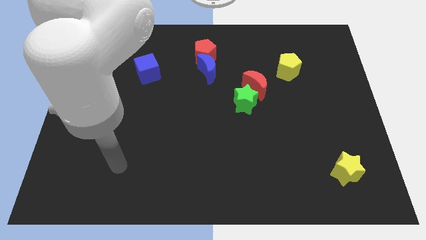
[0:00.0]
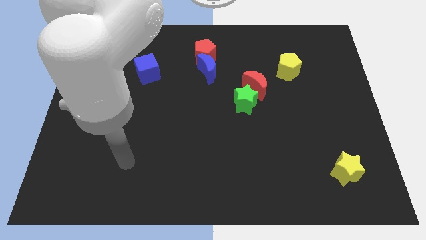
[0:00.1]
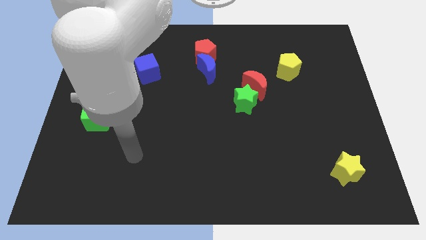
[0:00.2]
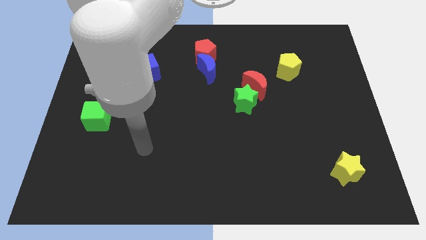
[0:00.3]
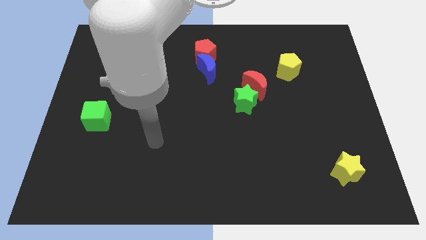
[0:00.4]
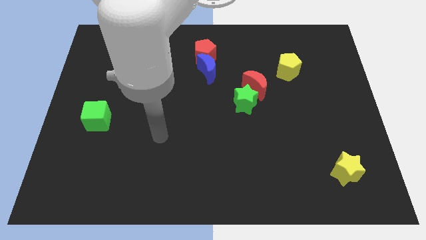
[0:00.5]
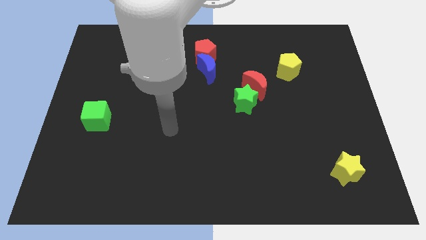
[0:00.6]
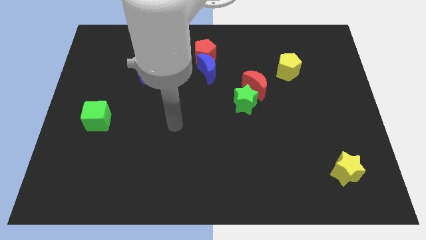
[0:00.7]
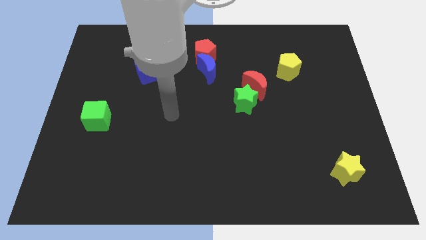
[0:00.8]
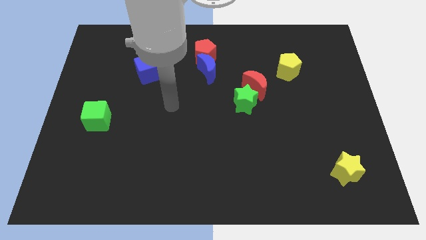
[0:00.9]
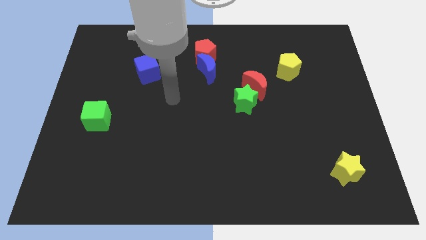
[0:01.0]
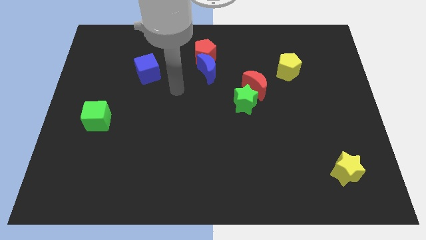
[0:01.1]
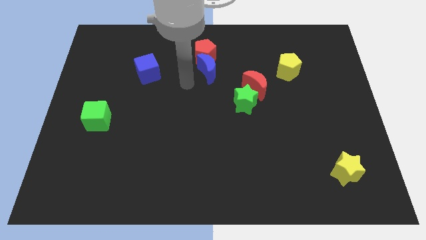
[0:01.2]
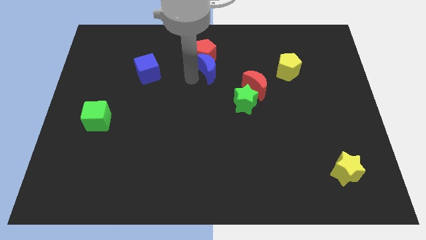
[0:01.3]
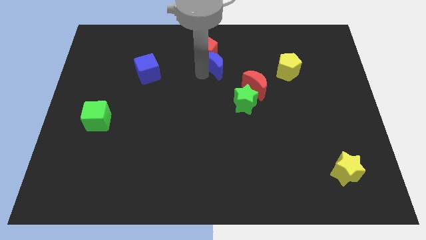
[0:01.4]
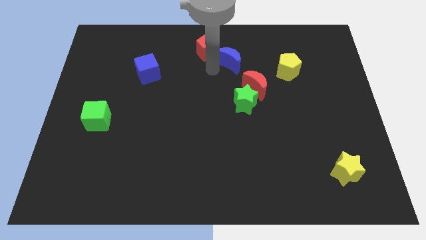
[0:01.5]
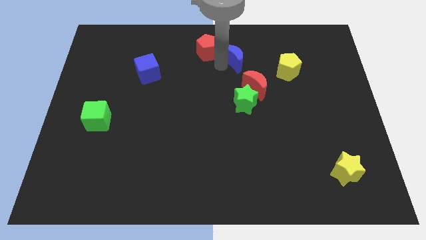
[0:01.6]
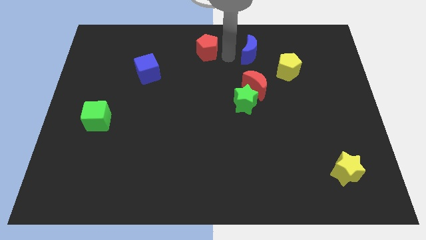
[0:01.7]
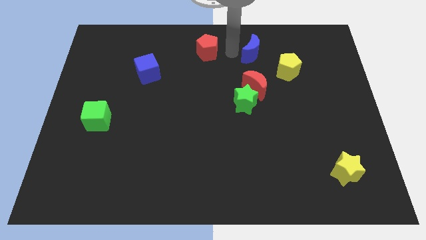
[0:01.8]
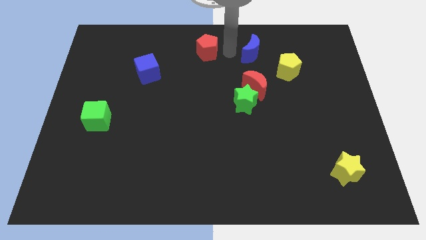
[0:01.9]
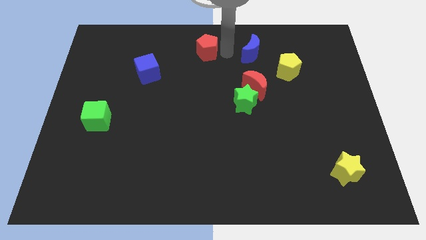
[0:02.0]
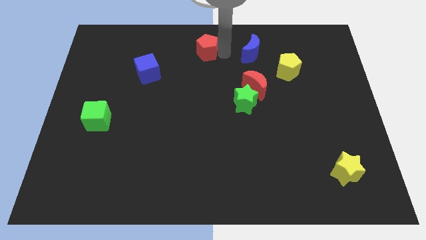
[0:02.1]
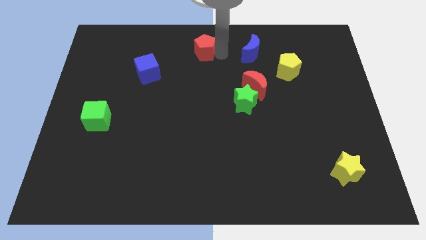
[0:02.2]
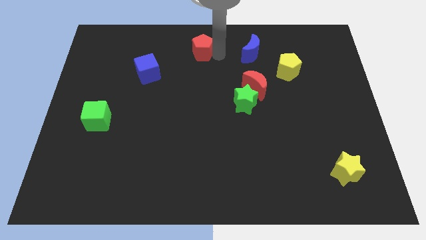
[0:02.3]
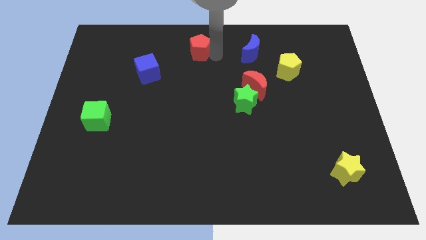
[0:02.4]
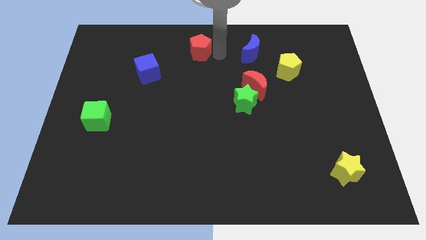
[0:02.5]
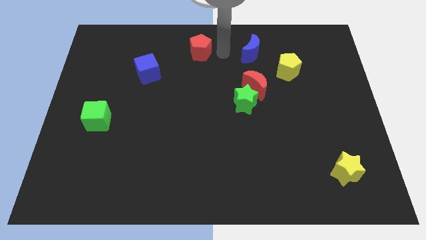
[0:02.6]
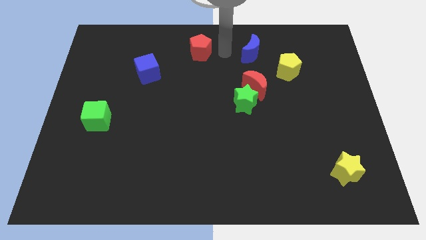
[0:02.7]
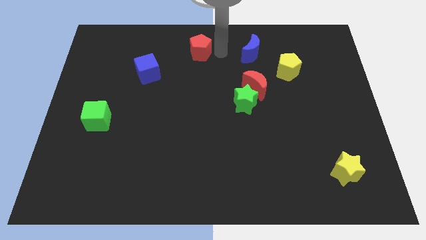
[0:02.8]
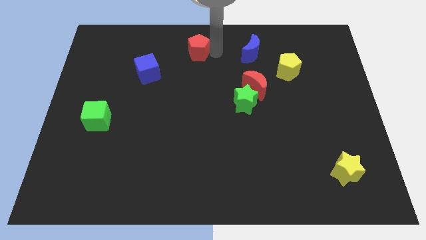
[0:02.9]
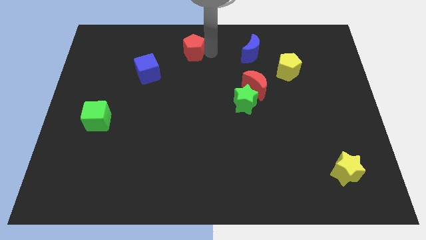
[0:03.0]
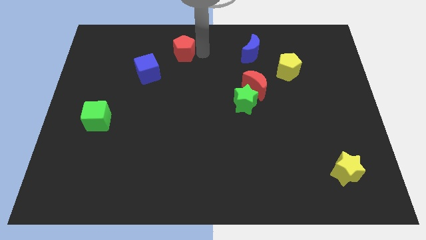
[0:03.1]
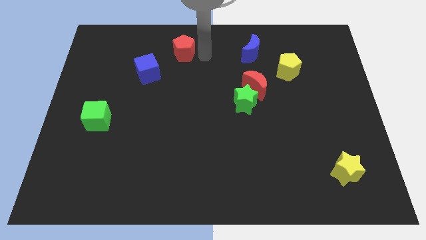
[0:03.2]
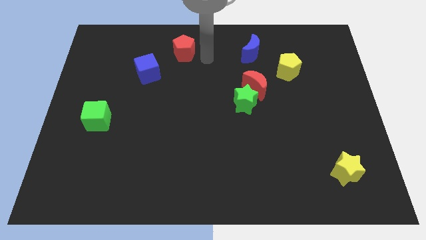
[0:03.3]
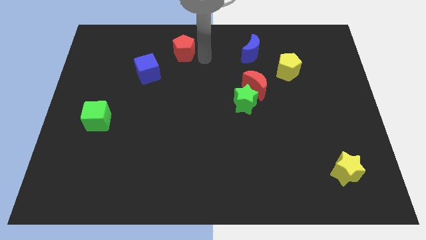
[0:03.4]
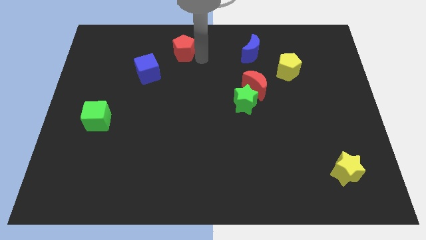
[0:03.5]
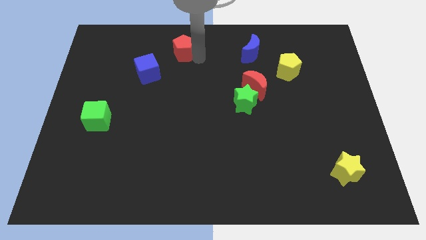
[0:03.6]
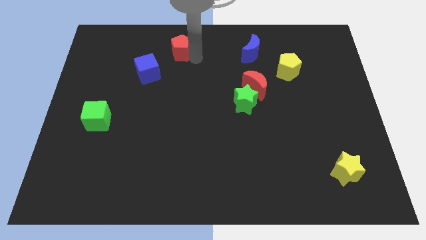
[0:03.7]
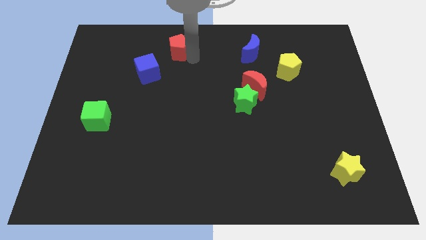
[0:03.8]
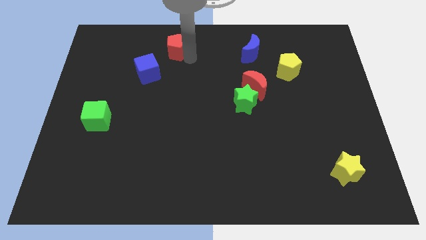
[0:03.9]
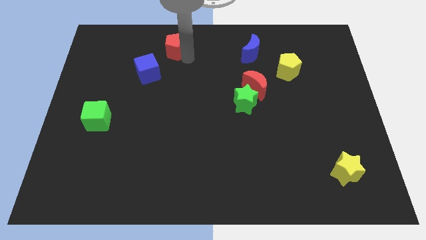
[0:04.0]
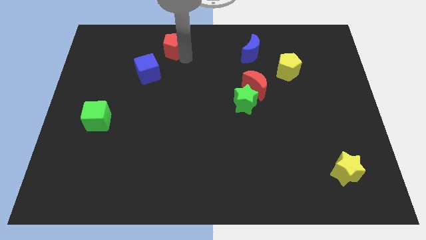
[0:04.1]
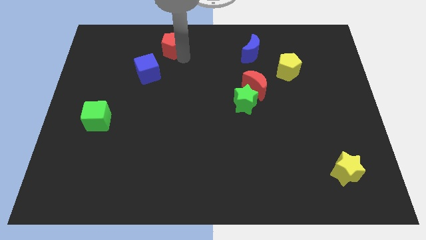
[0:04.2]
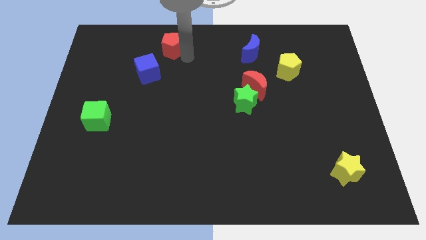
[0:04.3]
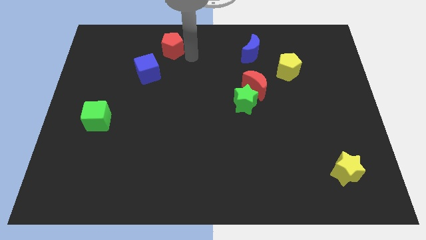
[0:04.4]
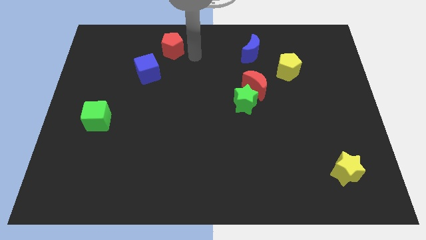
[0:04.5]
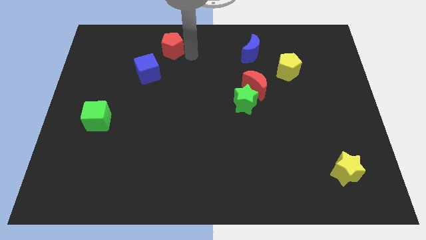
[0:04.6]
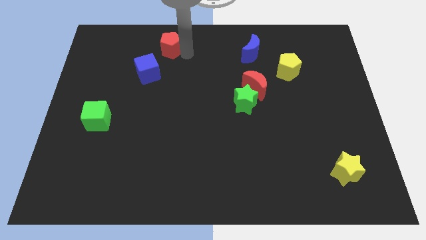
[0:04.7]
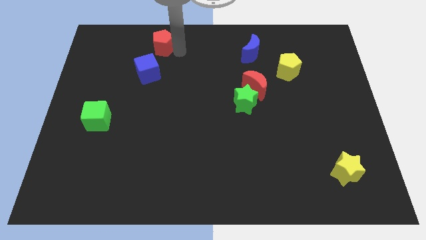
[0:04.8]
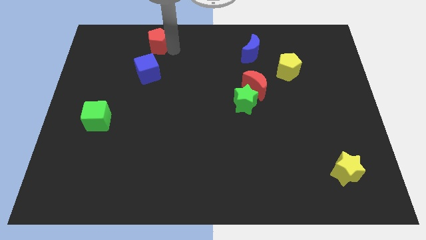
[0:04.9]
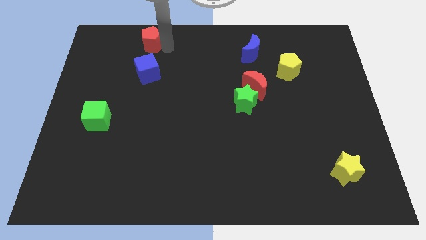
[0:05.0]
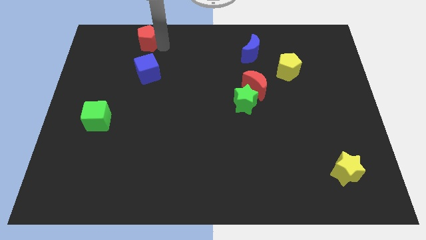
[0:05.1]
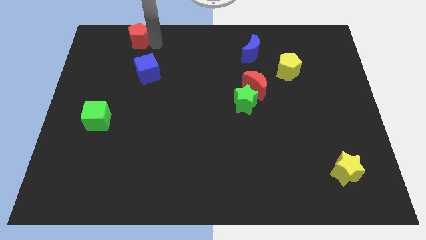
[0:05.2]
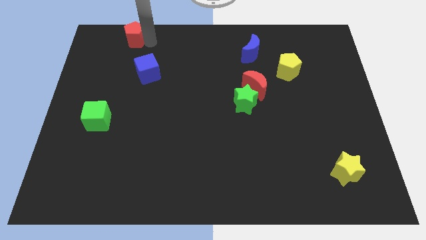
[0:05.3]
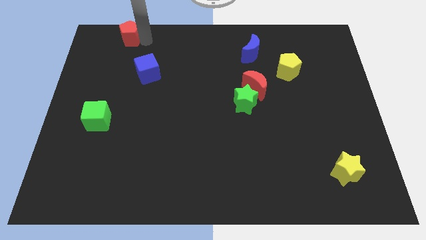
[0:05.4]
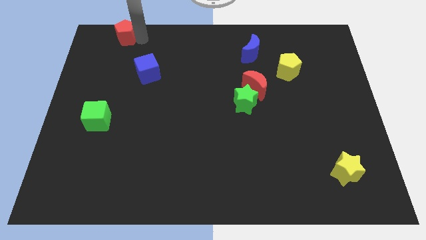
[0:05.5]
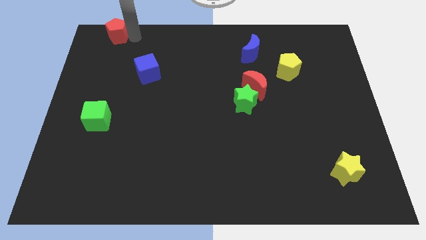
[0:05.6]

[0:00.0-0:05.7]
move the red pentagon to the top left corner

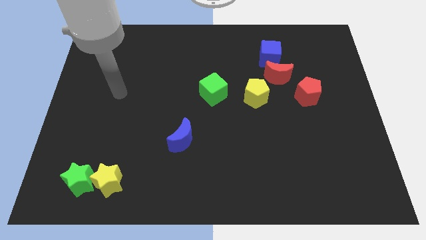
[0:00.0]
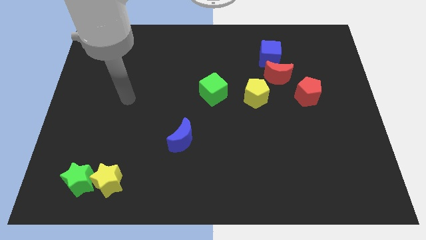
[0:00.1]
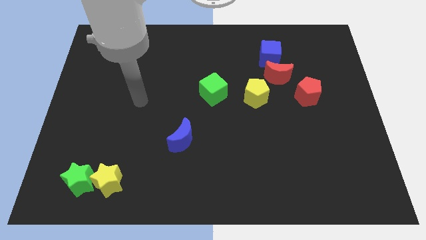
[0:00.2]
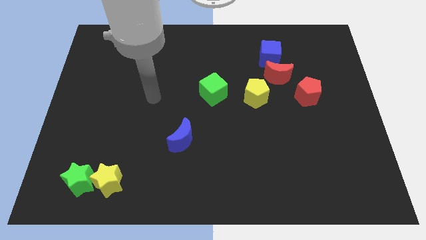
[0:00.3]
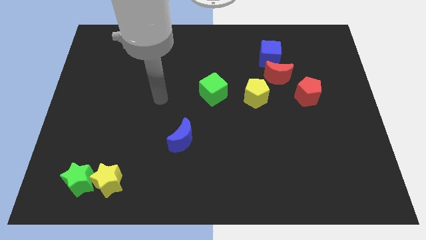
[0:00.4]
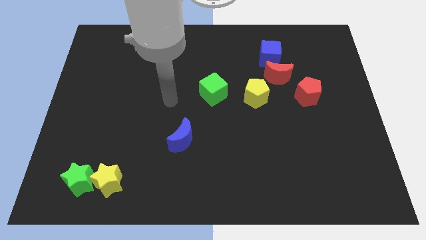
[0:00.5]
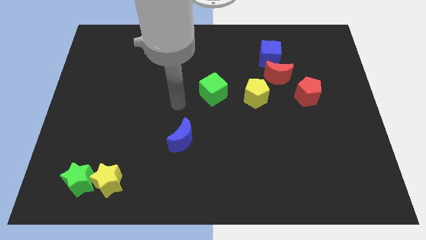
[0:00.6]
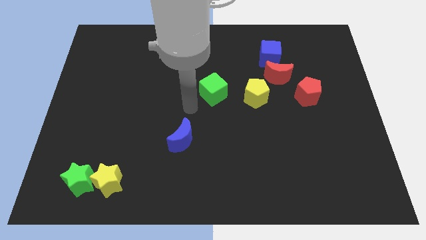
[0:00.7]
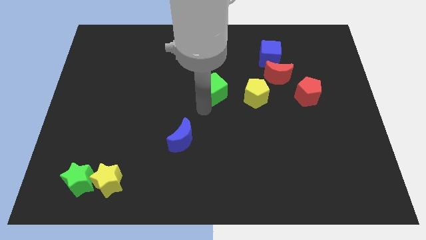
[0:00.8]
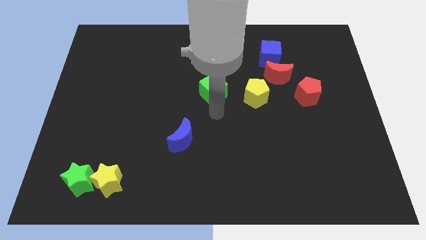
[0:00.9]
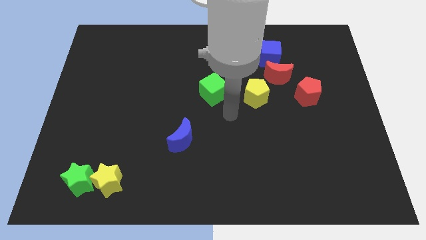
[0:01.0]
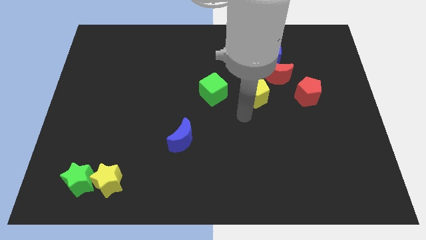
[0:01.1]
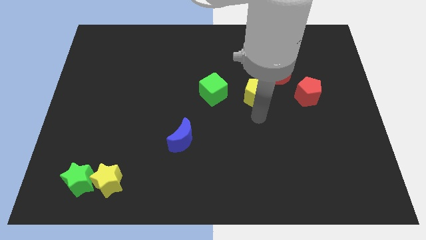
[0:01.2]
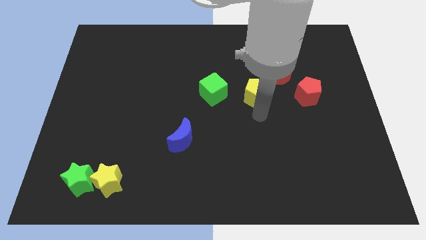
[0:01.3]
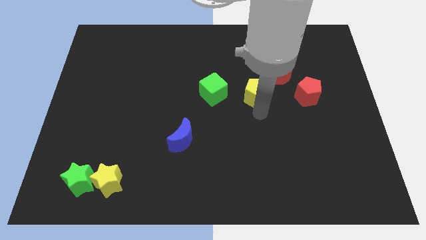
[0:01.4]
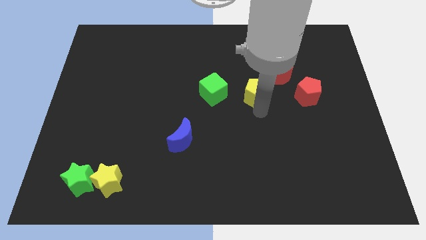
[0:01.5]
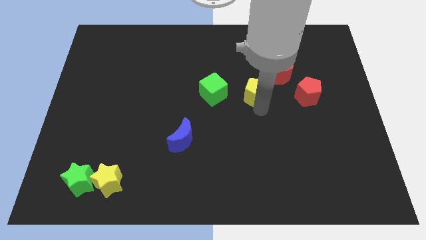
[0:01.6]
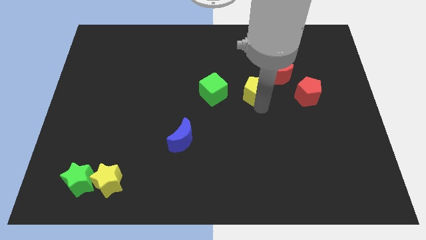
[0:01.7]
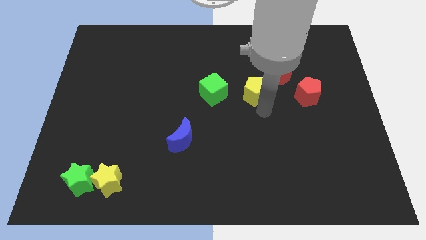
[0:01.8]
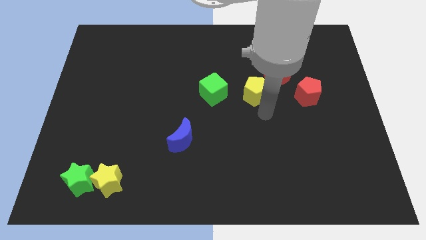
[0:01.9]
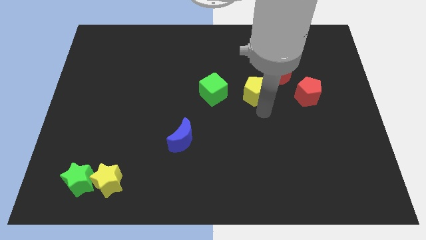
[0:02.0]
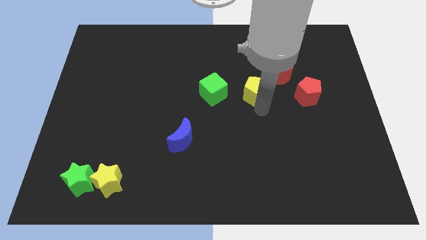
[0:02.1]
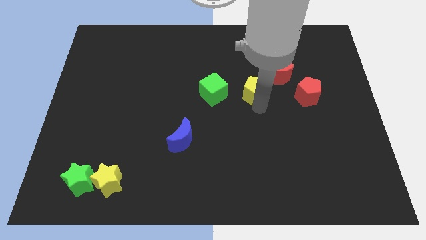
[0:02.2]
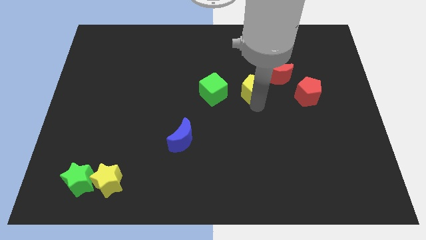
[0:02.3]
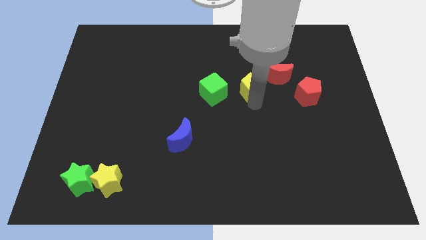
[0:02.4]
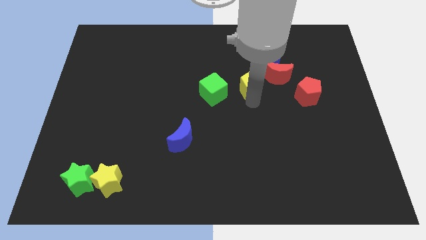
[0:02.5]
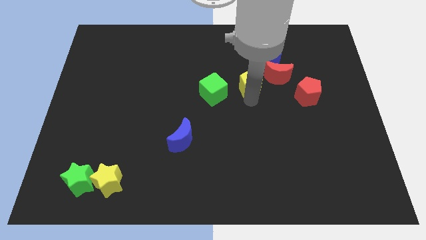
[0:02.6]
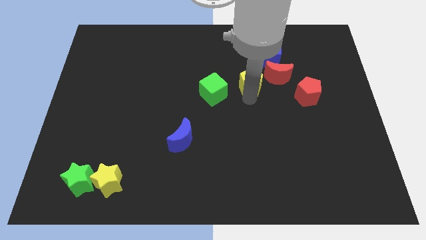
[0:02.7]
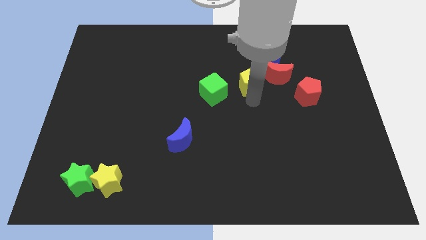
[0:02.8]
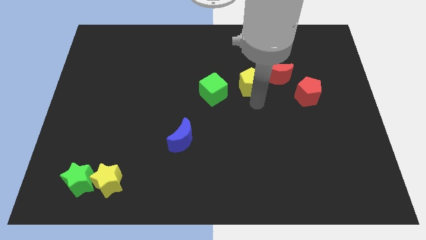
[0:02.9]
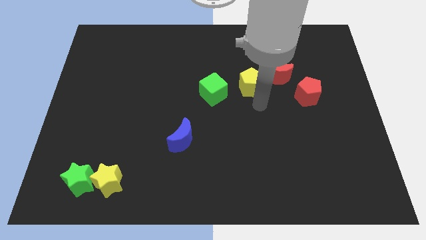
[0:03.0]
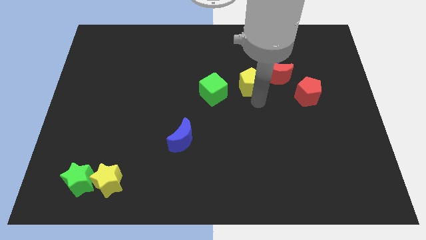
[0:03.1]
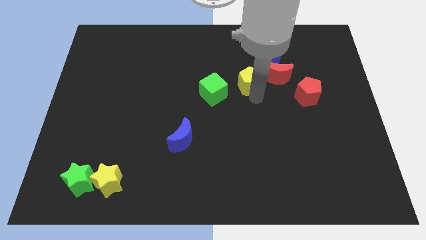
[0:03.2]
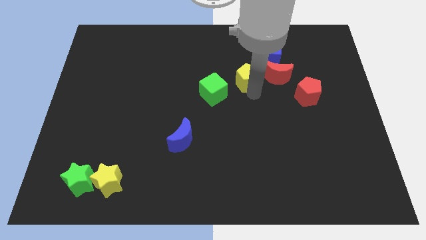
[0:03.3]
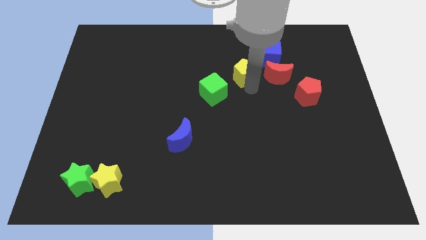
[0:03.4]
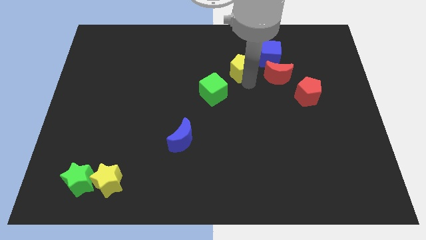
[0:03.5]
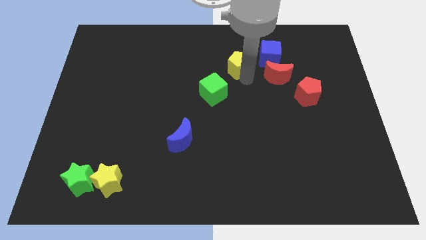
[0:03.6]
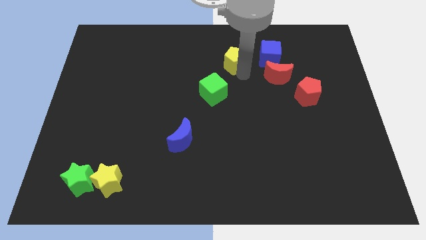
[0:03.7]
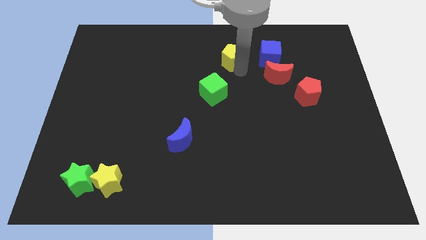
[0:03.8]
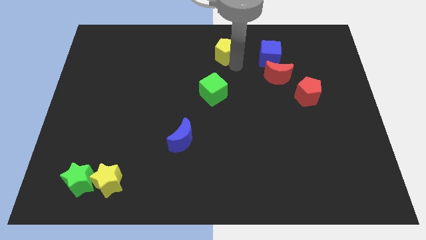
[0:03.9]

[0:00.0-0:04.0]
move the yellow pentagon to the top side
